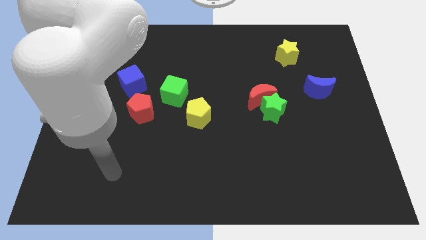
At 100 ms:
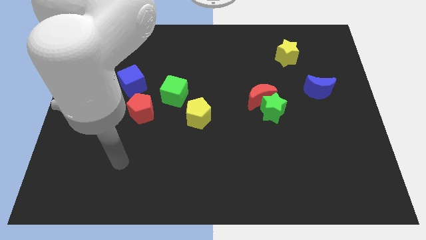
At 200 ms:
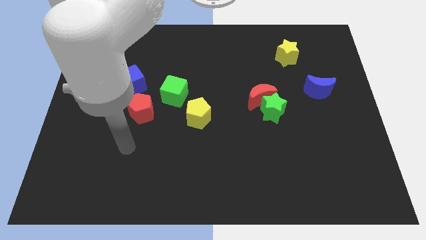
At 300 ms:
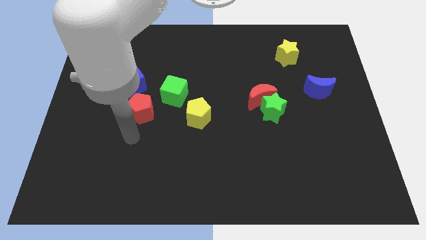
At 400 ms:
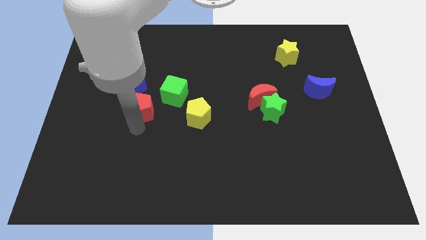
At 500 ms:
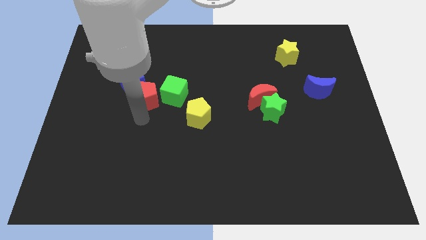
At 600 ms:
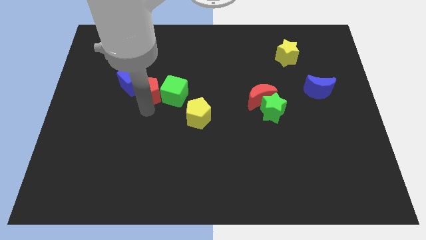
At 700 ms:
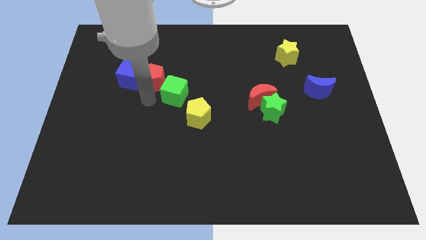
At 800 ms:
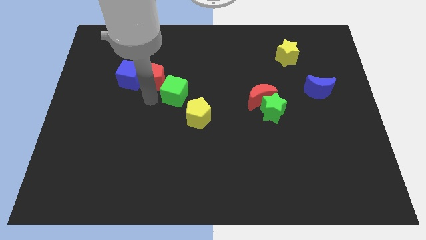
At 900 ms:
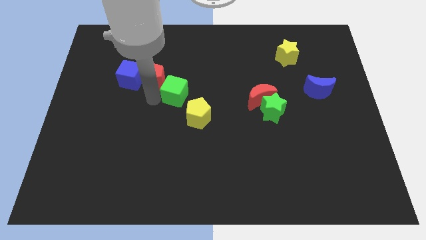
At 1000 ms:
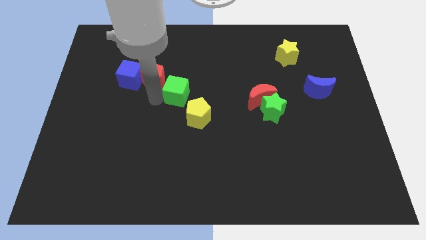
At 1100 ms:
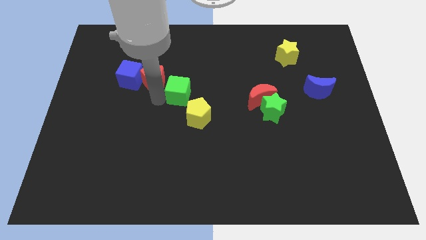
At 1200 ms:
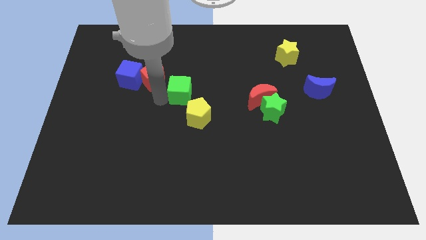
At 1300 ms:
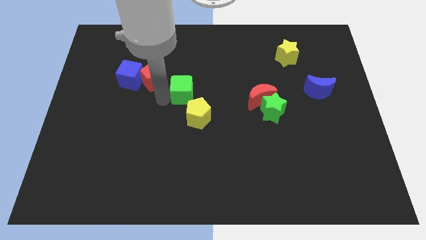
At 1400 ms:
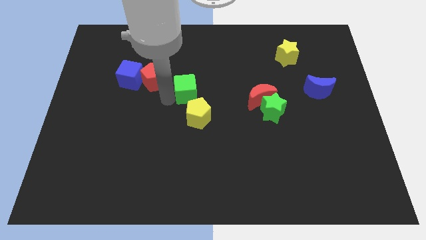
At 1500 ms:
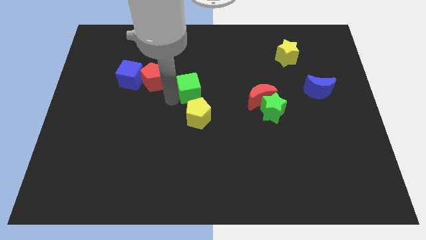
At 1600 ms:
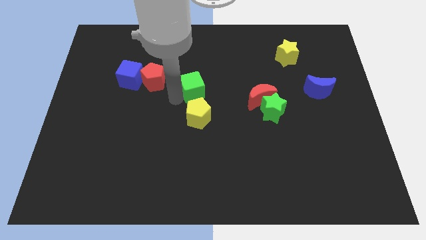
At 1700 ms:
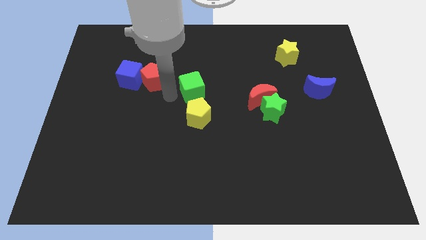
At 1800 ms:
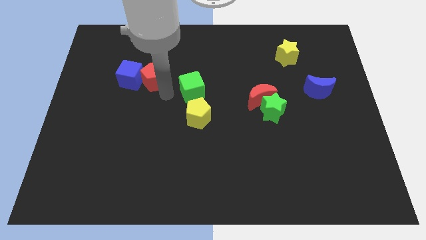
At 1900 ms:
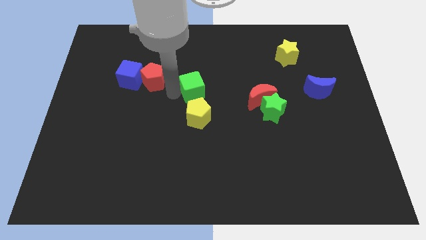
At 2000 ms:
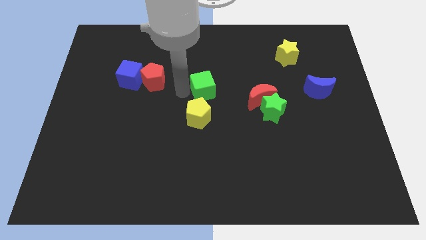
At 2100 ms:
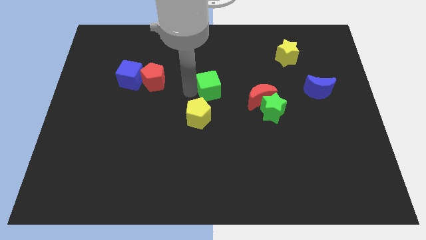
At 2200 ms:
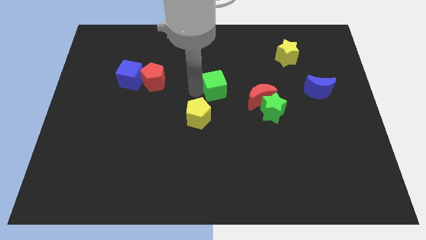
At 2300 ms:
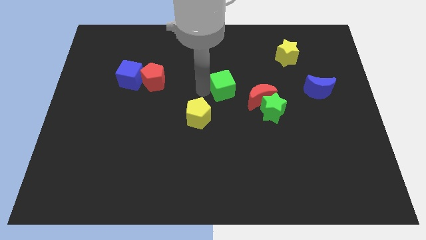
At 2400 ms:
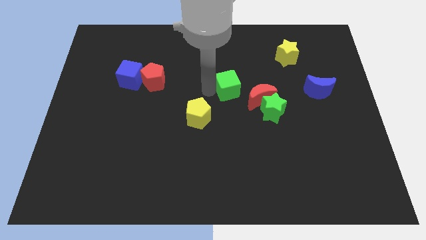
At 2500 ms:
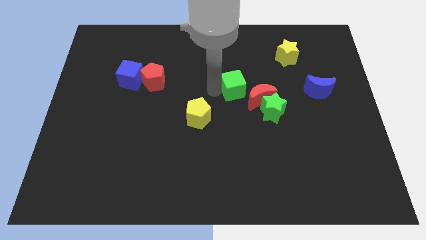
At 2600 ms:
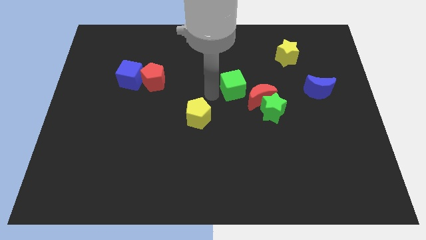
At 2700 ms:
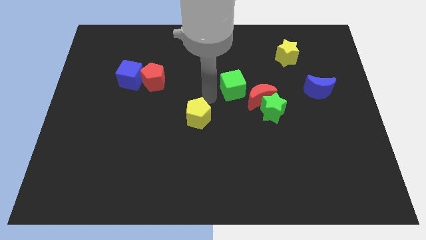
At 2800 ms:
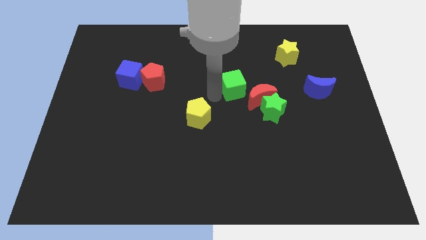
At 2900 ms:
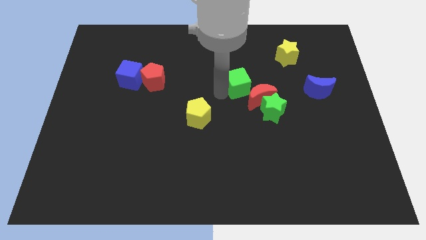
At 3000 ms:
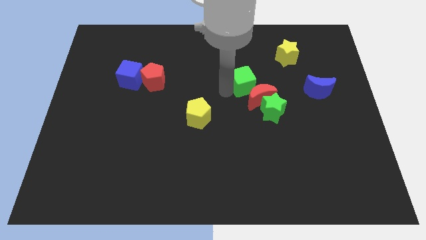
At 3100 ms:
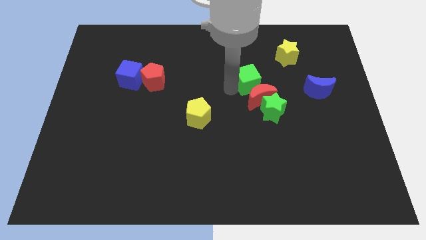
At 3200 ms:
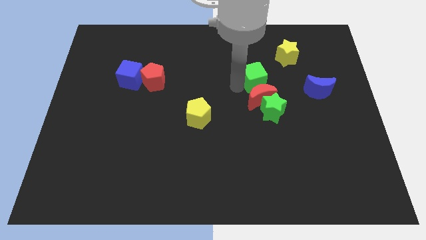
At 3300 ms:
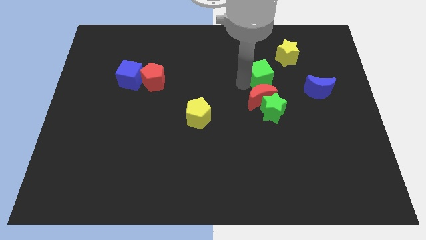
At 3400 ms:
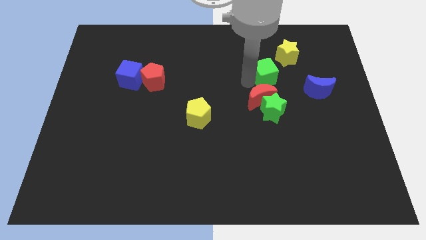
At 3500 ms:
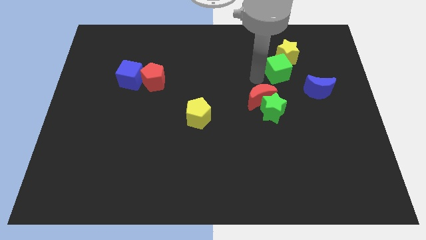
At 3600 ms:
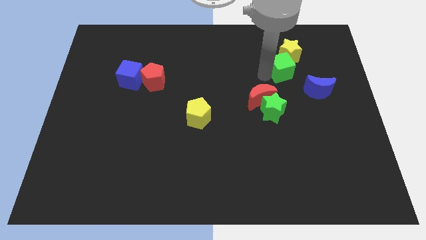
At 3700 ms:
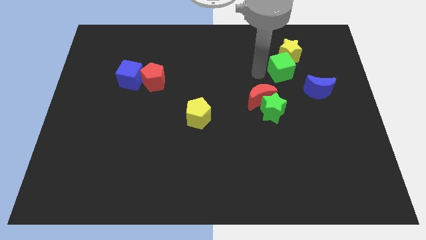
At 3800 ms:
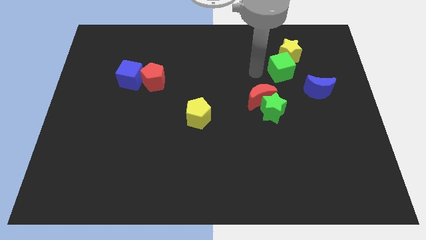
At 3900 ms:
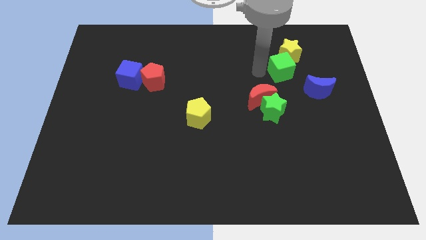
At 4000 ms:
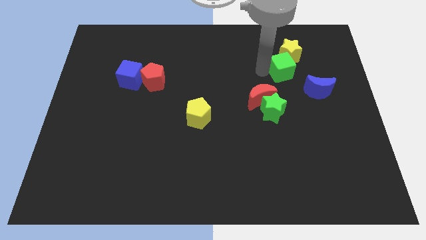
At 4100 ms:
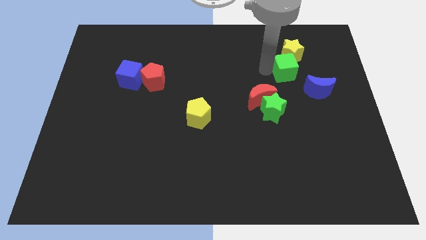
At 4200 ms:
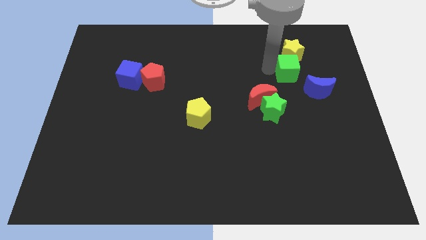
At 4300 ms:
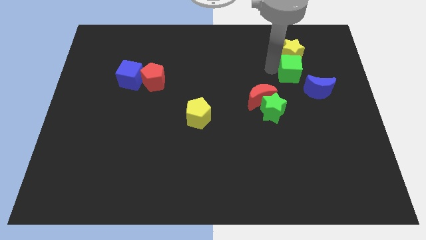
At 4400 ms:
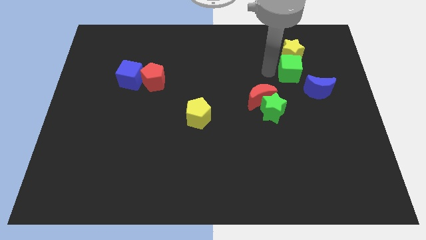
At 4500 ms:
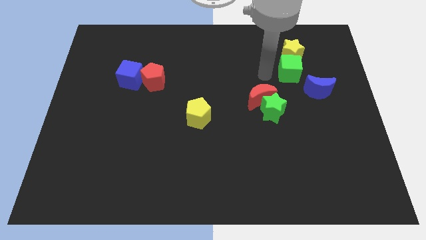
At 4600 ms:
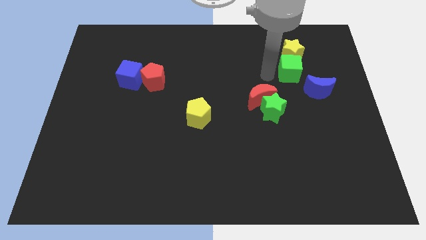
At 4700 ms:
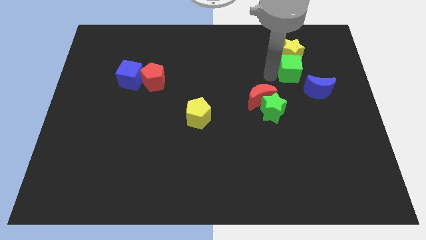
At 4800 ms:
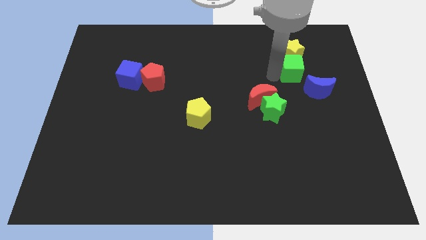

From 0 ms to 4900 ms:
push the green cube to the bottom right side of the yellow star

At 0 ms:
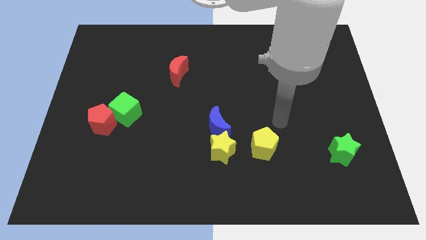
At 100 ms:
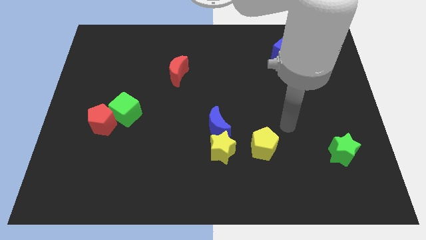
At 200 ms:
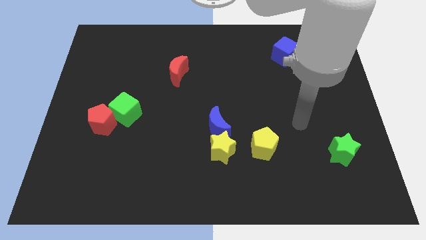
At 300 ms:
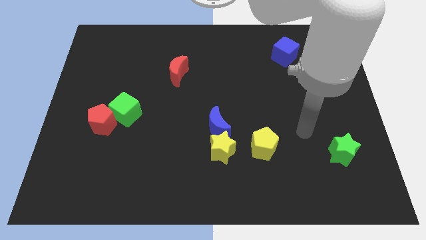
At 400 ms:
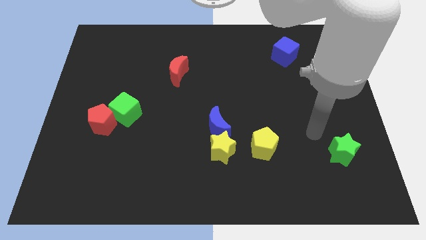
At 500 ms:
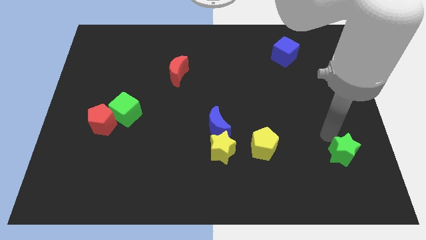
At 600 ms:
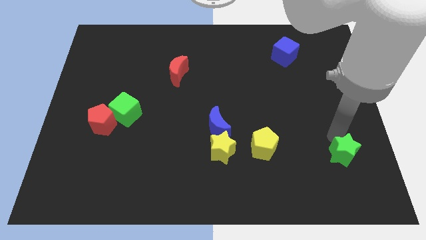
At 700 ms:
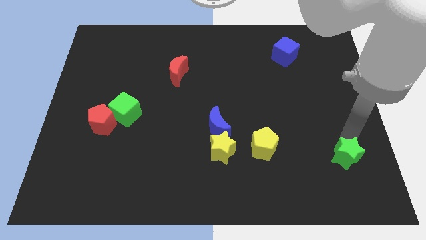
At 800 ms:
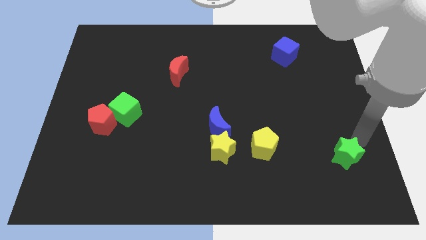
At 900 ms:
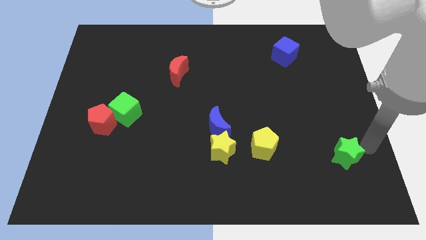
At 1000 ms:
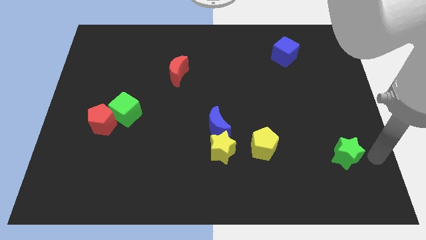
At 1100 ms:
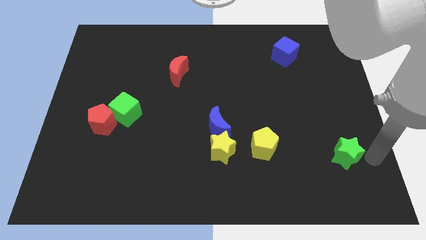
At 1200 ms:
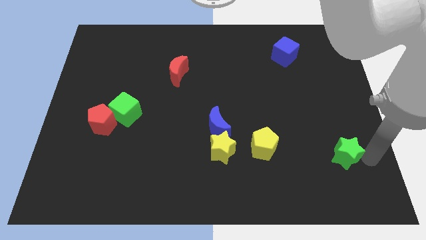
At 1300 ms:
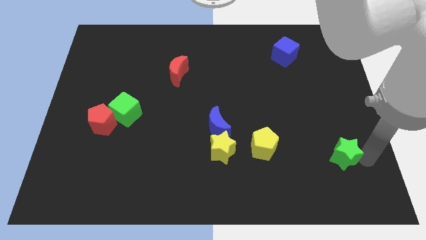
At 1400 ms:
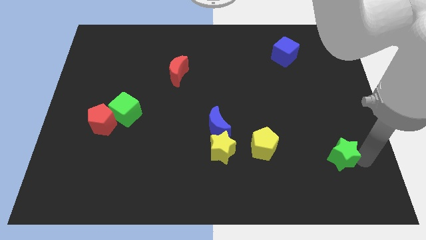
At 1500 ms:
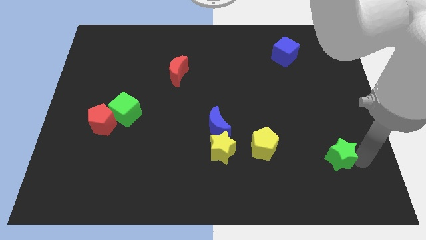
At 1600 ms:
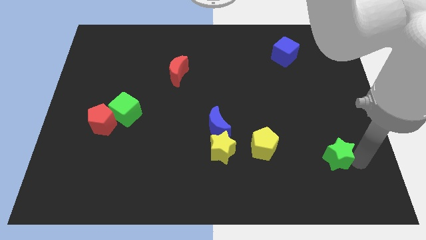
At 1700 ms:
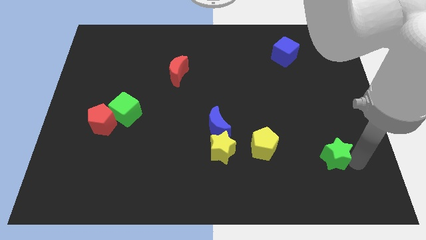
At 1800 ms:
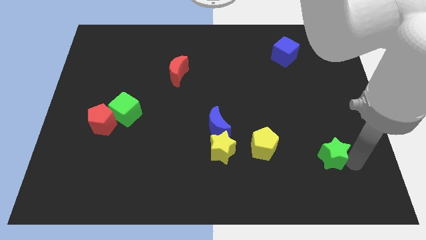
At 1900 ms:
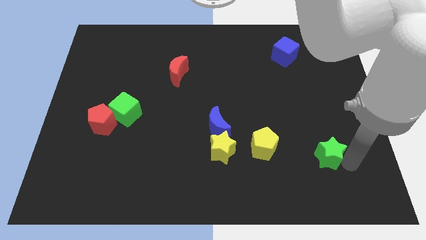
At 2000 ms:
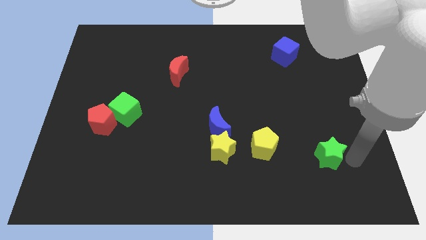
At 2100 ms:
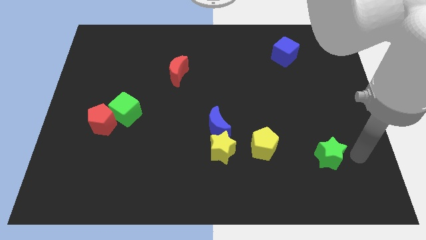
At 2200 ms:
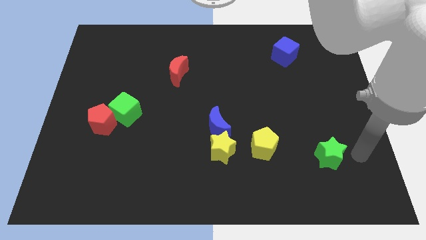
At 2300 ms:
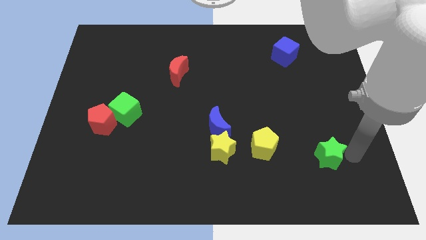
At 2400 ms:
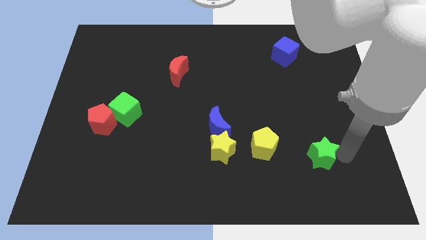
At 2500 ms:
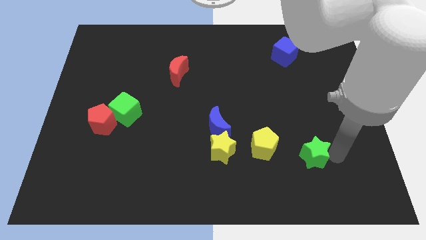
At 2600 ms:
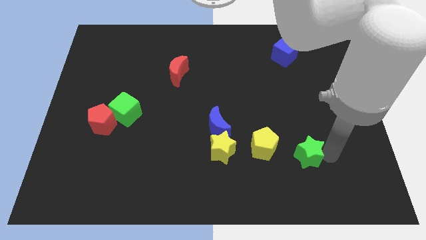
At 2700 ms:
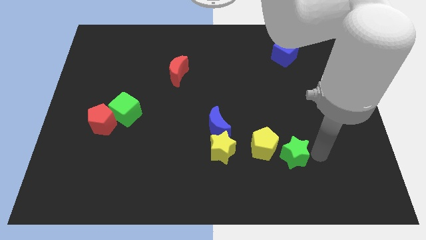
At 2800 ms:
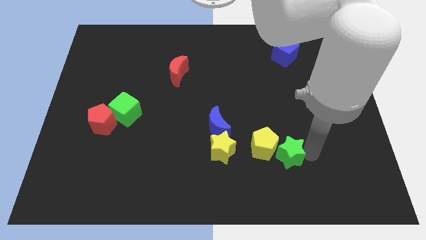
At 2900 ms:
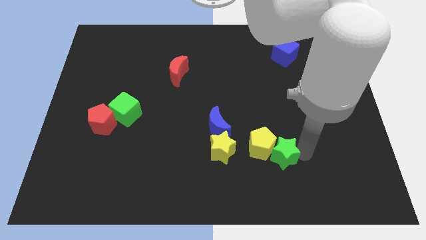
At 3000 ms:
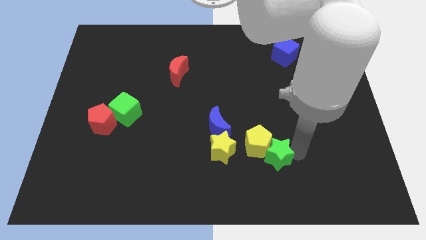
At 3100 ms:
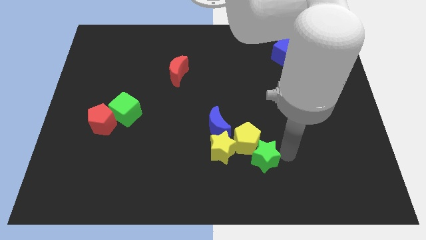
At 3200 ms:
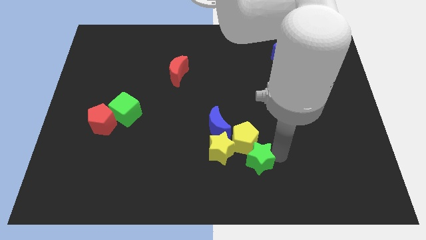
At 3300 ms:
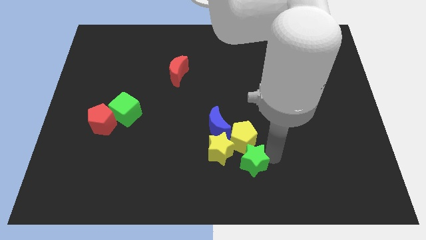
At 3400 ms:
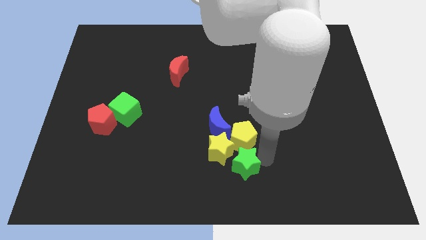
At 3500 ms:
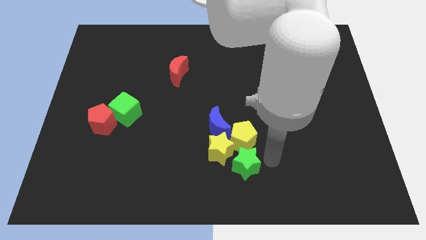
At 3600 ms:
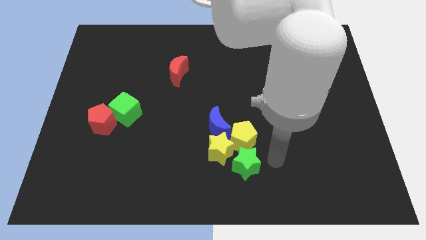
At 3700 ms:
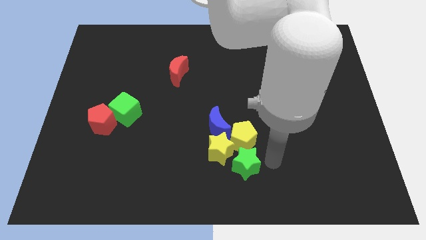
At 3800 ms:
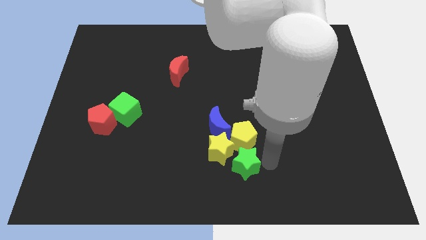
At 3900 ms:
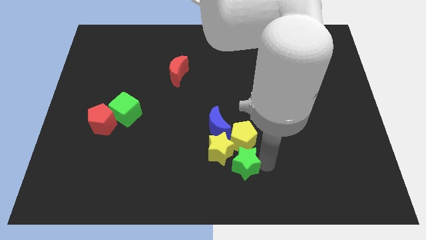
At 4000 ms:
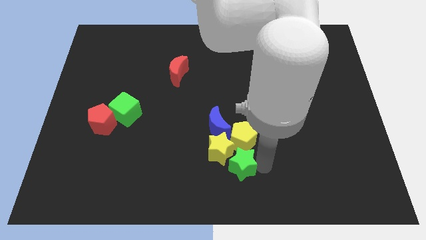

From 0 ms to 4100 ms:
push the green star to the bottom side of the blue moon
